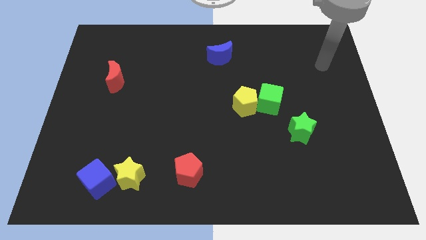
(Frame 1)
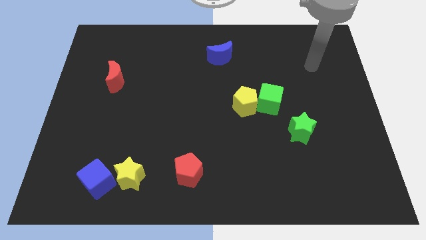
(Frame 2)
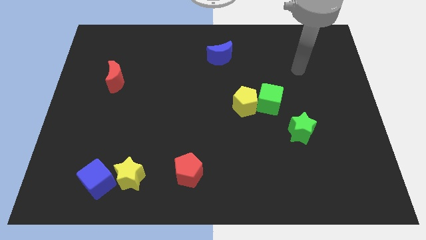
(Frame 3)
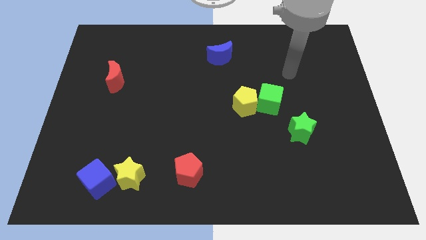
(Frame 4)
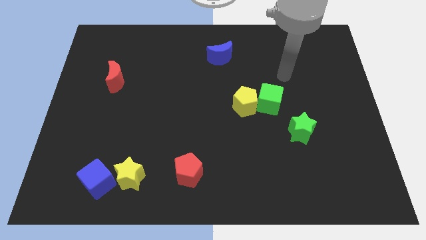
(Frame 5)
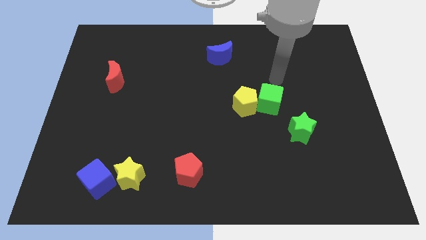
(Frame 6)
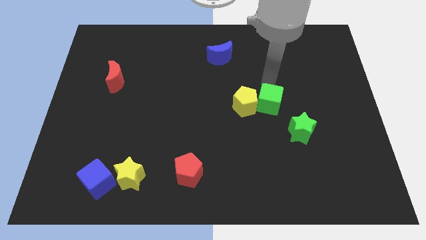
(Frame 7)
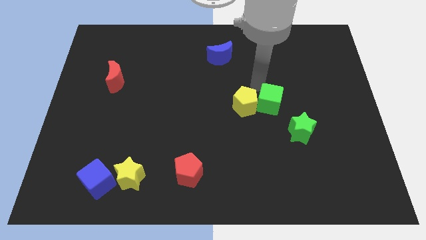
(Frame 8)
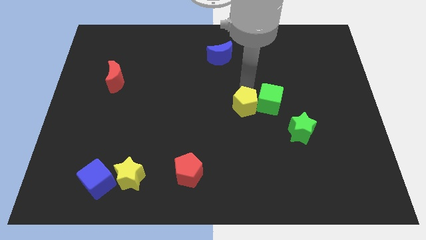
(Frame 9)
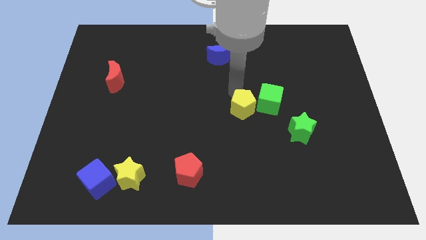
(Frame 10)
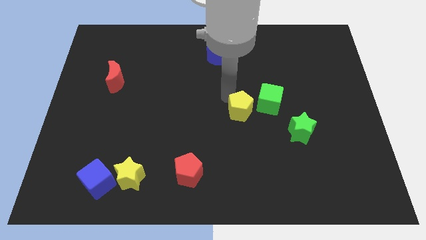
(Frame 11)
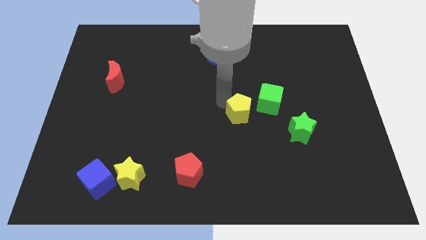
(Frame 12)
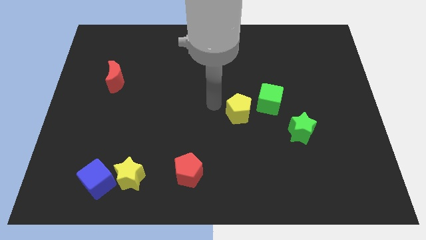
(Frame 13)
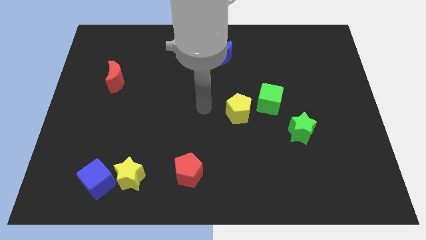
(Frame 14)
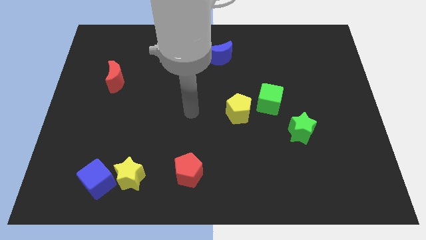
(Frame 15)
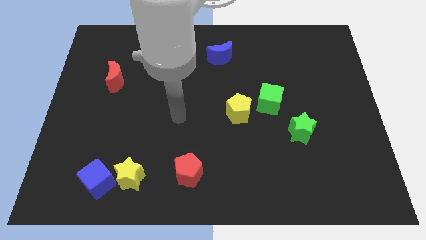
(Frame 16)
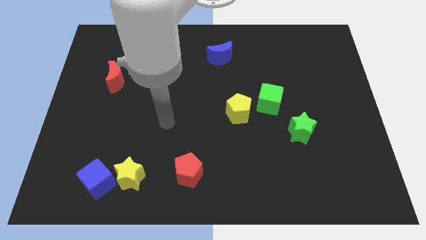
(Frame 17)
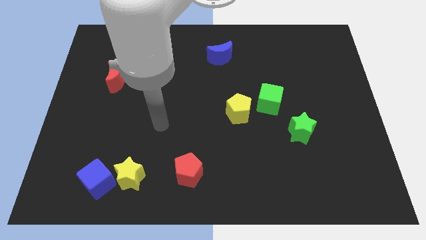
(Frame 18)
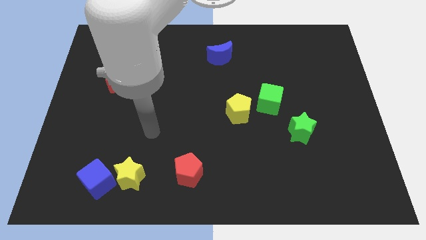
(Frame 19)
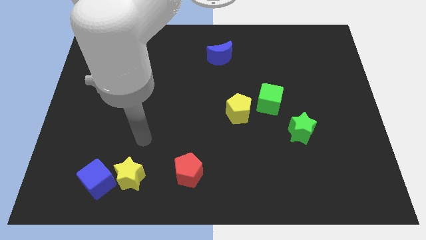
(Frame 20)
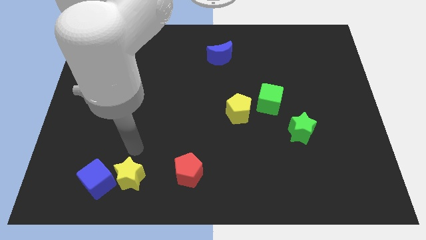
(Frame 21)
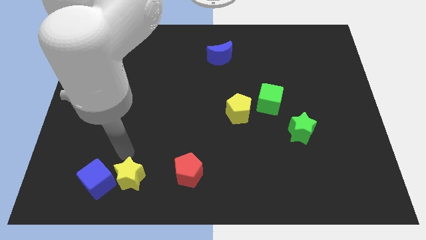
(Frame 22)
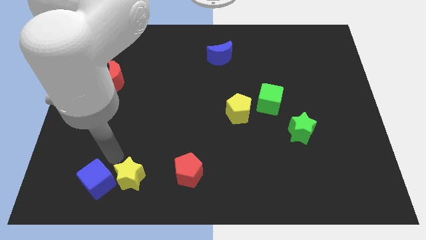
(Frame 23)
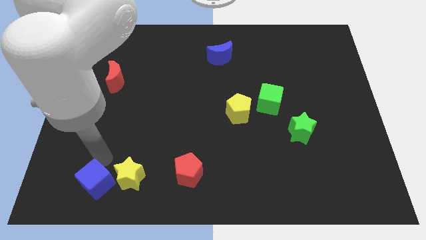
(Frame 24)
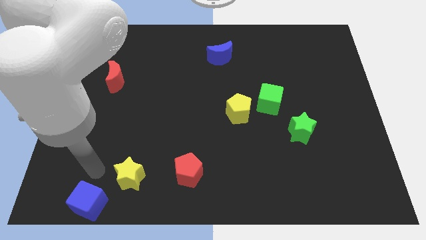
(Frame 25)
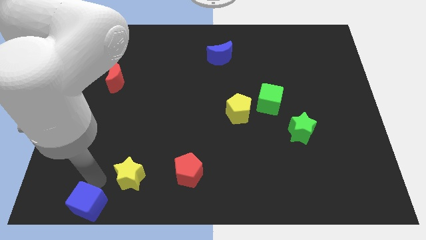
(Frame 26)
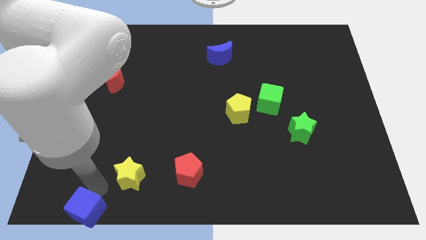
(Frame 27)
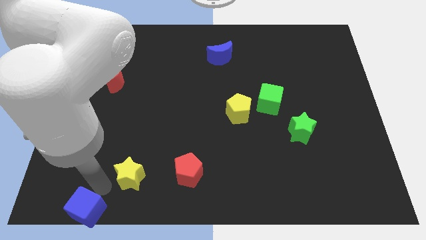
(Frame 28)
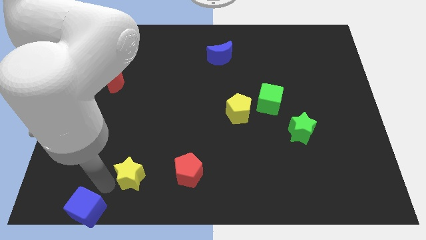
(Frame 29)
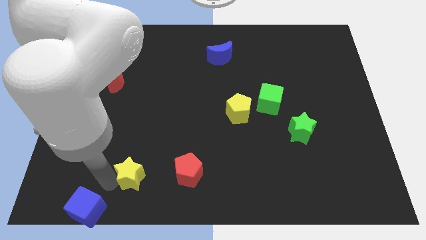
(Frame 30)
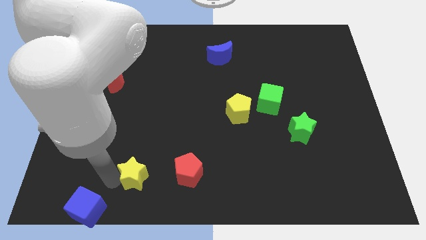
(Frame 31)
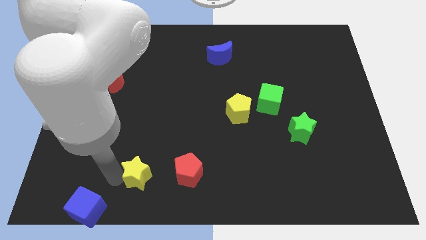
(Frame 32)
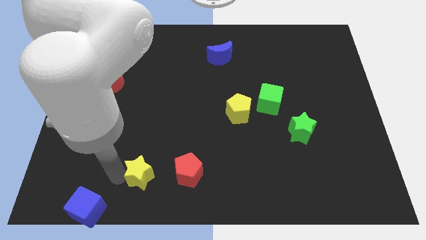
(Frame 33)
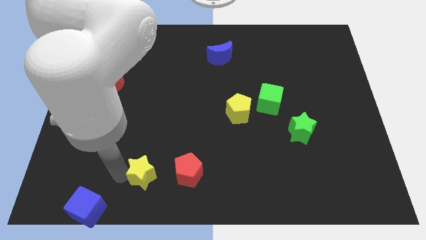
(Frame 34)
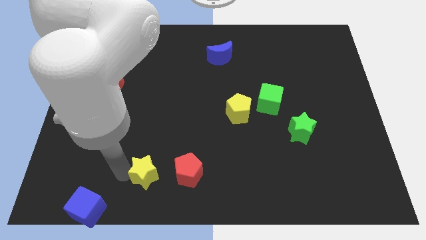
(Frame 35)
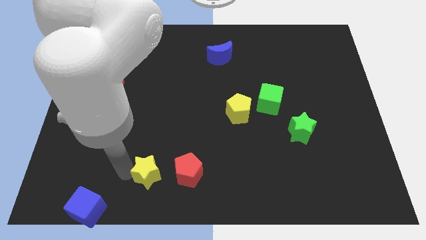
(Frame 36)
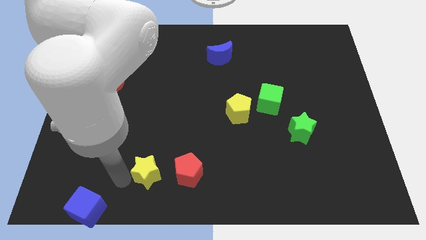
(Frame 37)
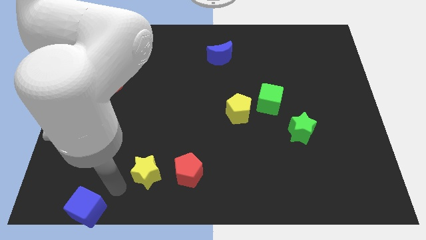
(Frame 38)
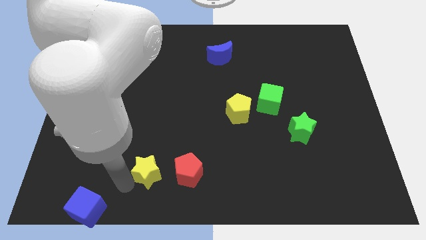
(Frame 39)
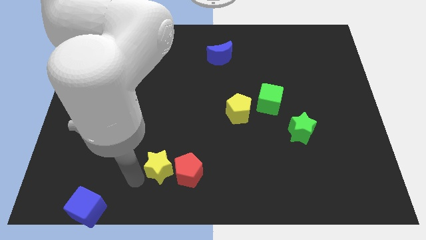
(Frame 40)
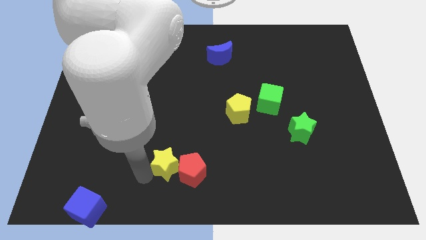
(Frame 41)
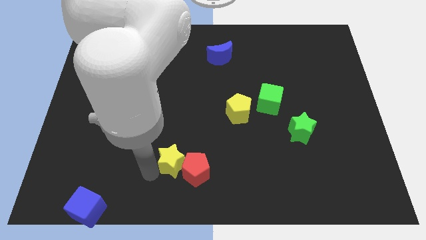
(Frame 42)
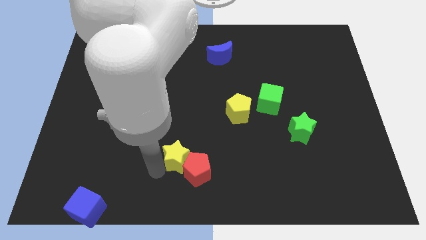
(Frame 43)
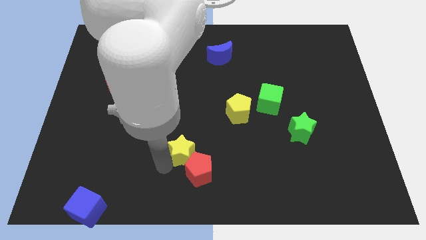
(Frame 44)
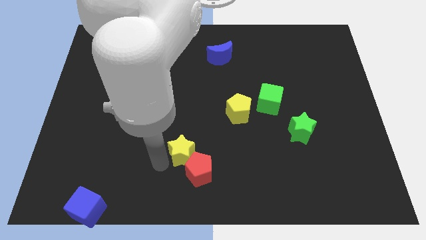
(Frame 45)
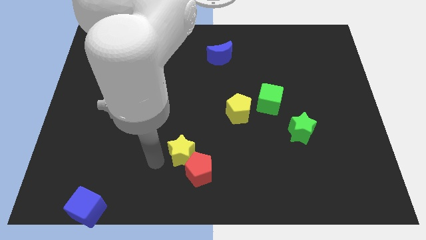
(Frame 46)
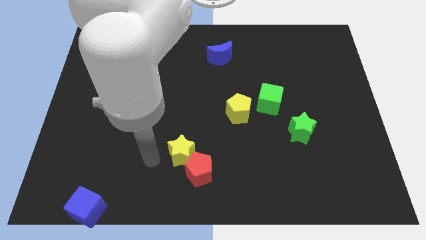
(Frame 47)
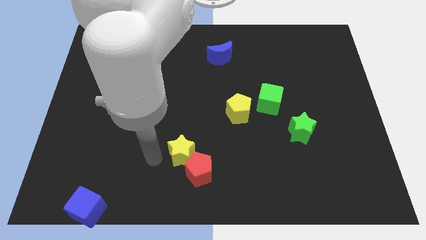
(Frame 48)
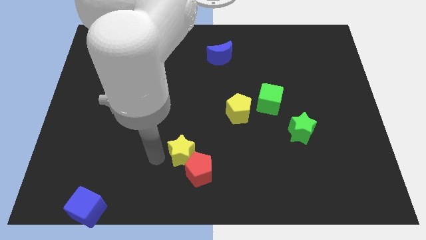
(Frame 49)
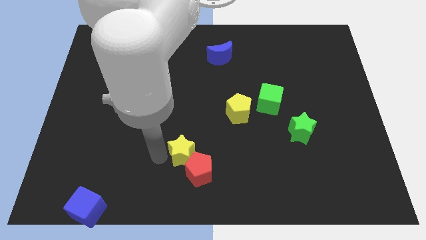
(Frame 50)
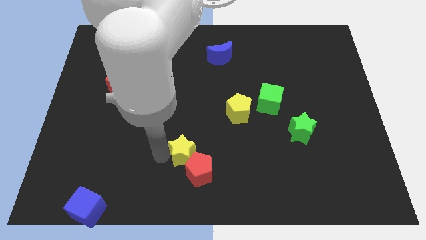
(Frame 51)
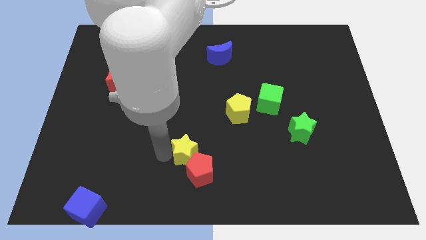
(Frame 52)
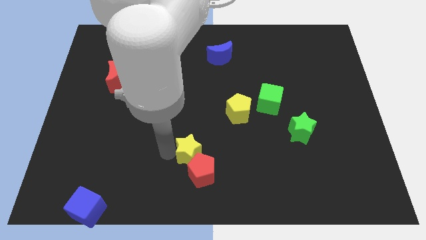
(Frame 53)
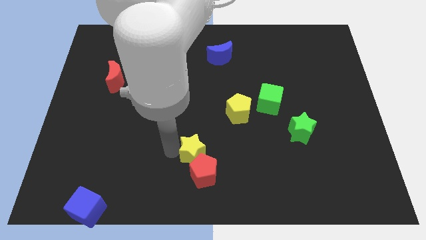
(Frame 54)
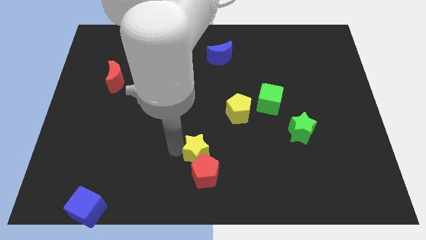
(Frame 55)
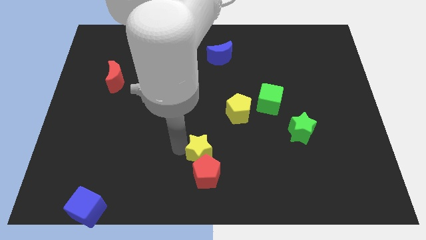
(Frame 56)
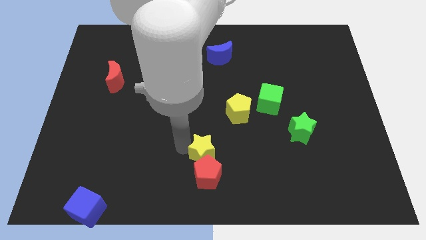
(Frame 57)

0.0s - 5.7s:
push the yellow star diagonally up and to the right of the red pentagon
